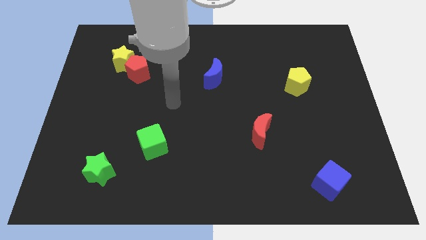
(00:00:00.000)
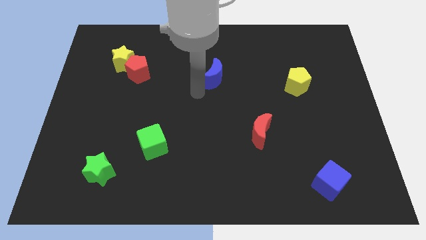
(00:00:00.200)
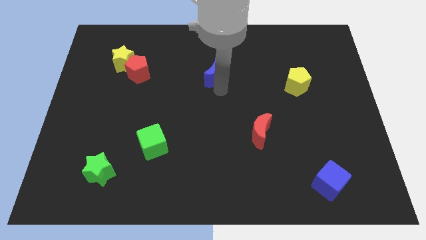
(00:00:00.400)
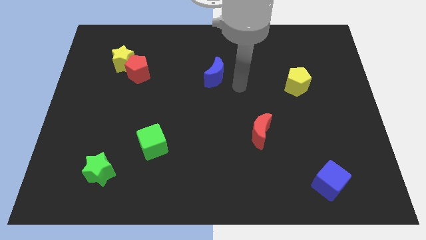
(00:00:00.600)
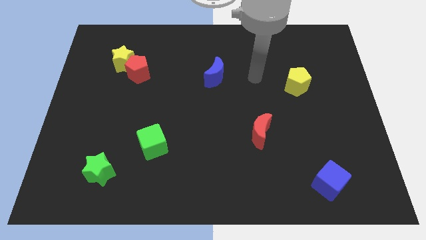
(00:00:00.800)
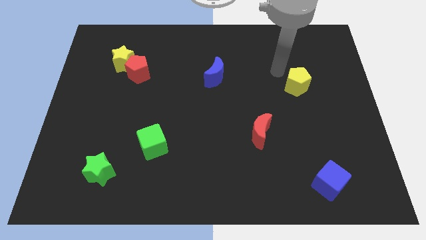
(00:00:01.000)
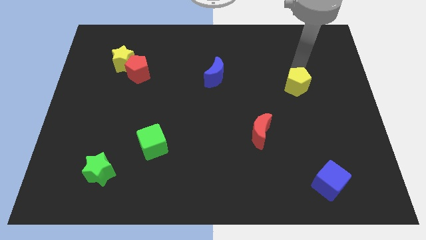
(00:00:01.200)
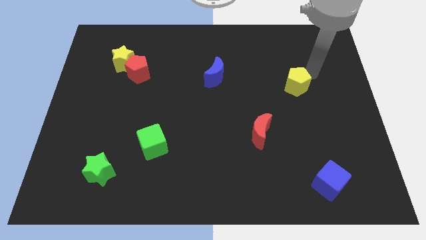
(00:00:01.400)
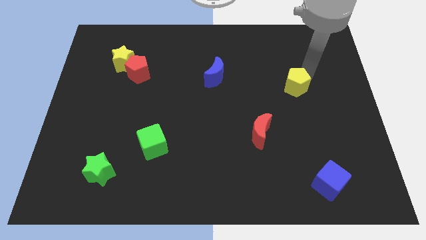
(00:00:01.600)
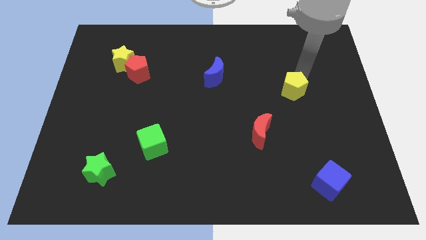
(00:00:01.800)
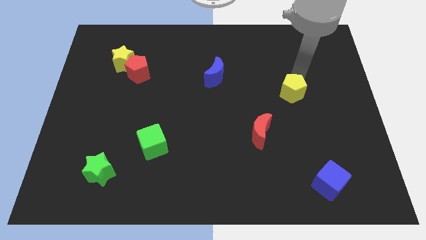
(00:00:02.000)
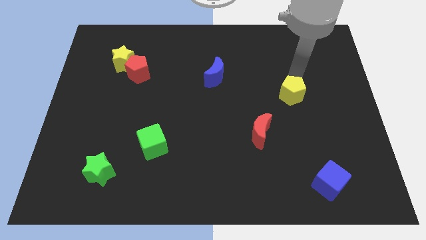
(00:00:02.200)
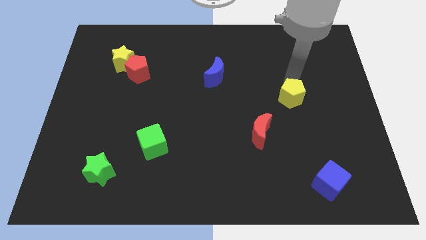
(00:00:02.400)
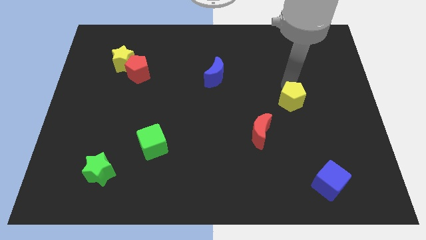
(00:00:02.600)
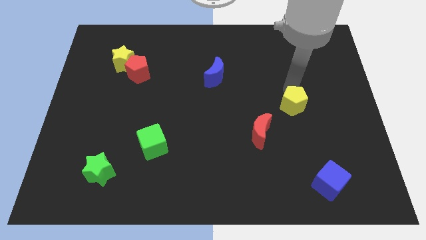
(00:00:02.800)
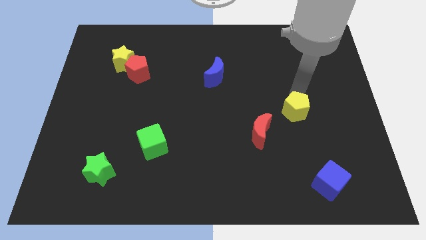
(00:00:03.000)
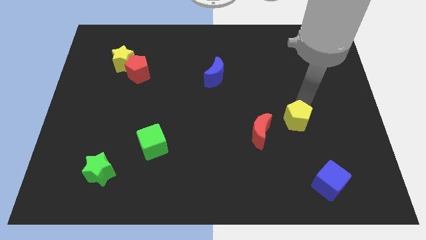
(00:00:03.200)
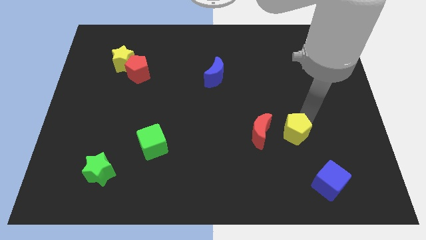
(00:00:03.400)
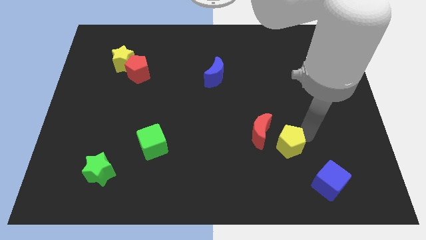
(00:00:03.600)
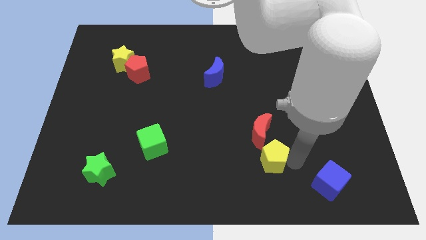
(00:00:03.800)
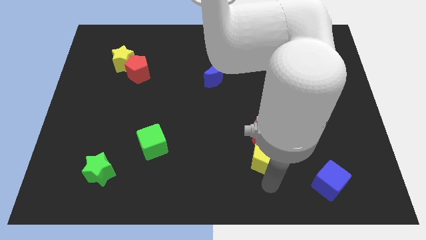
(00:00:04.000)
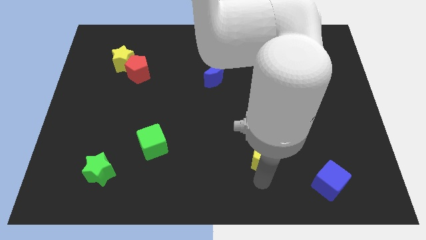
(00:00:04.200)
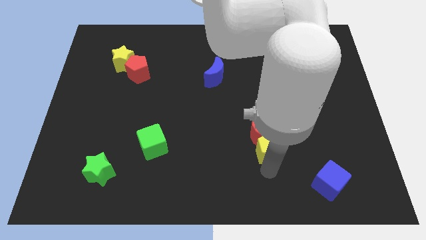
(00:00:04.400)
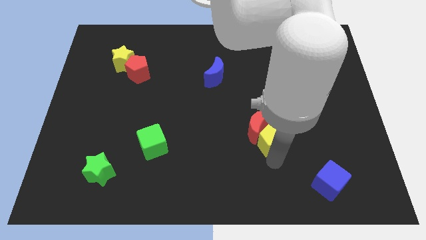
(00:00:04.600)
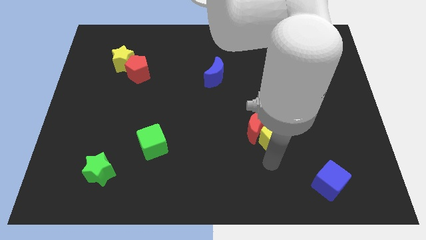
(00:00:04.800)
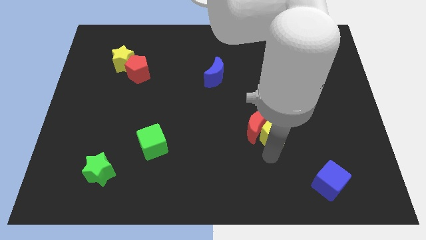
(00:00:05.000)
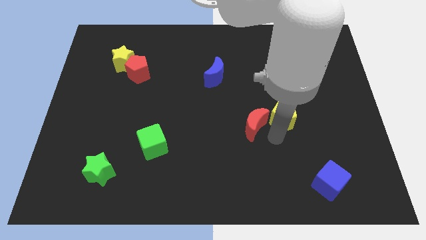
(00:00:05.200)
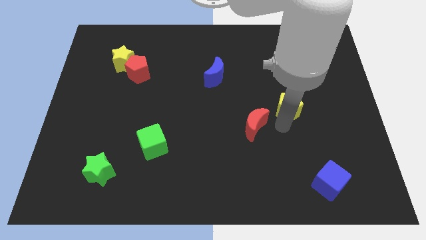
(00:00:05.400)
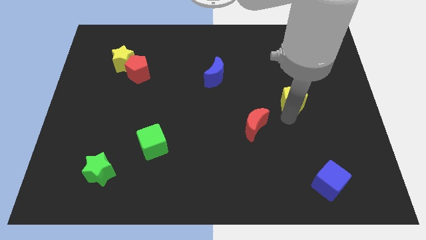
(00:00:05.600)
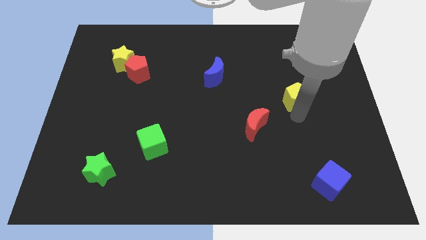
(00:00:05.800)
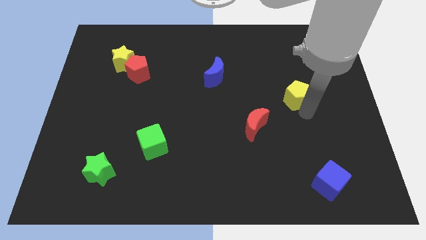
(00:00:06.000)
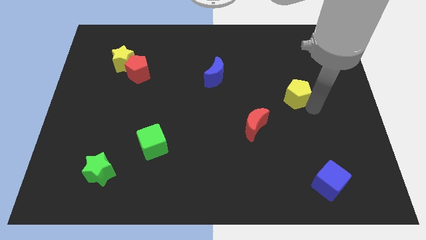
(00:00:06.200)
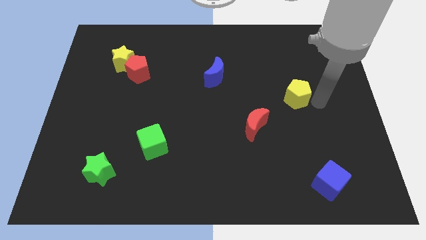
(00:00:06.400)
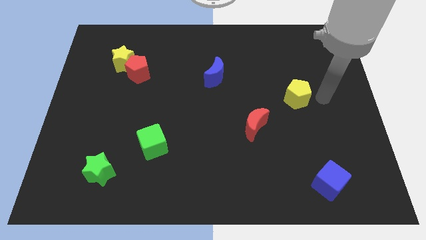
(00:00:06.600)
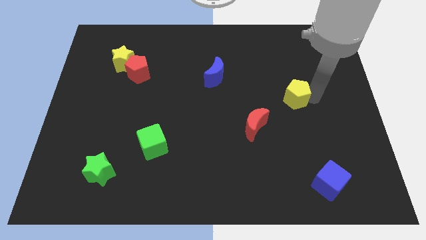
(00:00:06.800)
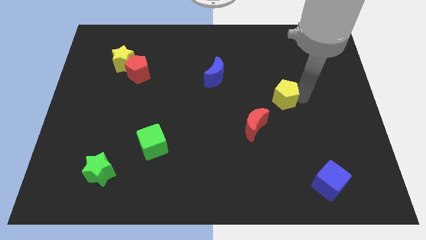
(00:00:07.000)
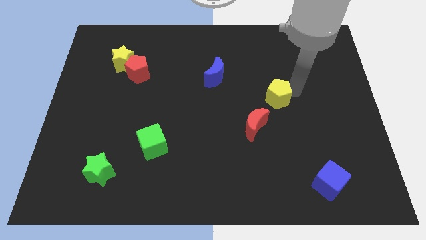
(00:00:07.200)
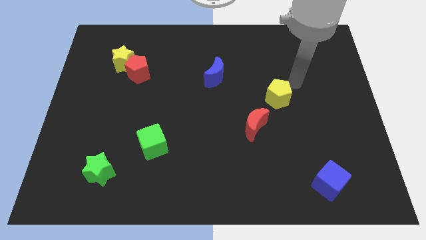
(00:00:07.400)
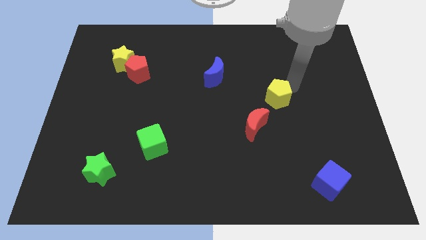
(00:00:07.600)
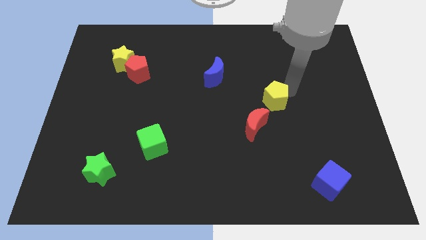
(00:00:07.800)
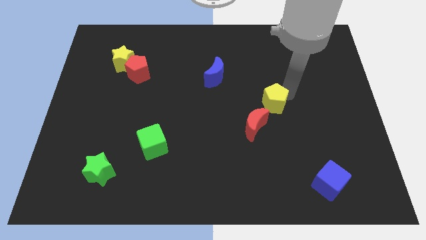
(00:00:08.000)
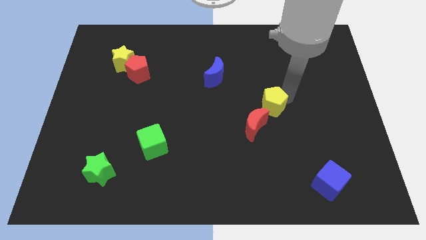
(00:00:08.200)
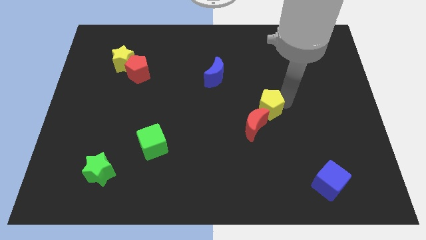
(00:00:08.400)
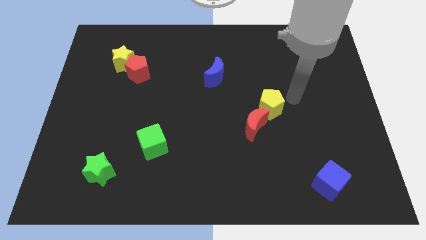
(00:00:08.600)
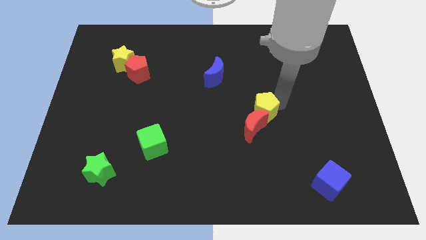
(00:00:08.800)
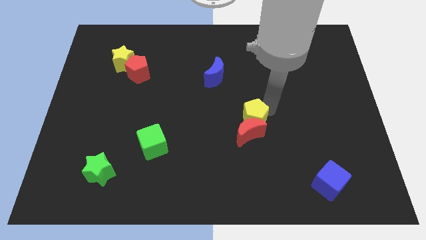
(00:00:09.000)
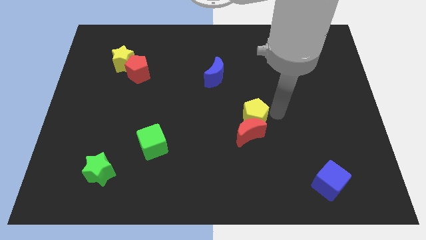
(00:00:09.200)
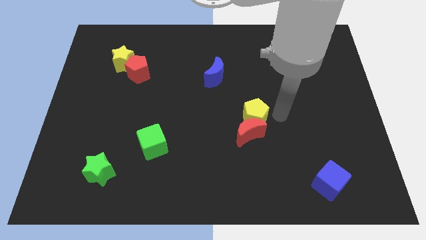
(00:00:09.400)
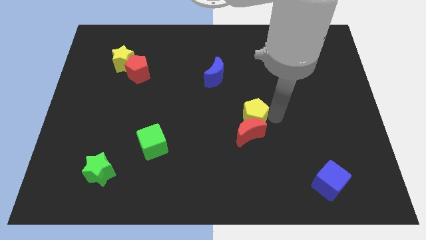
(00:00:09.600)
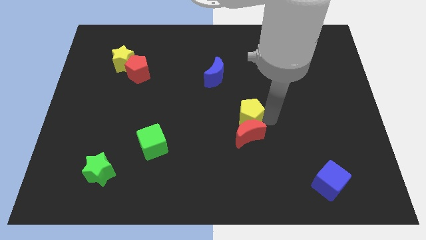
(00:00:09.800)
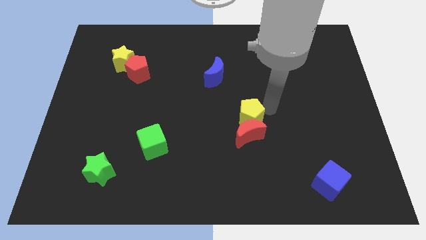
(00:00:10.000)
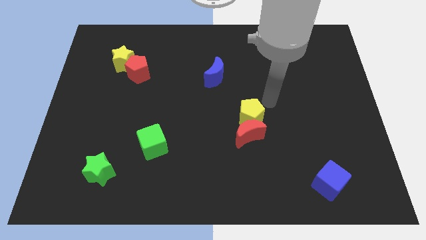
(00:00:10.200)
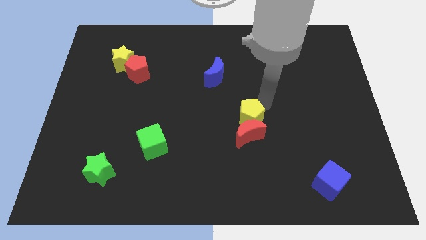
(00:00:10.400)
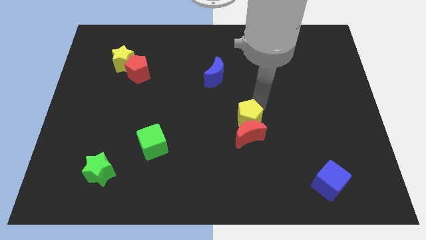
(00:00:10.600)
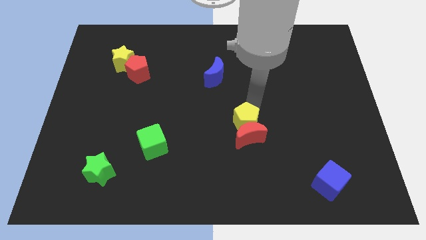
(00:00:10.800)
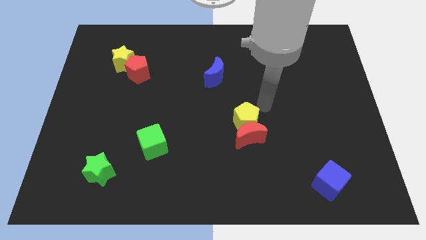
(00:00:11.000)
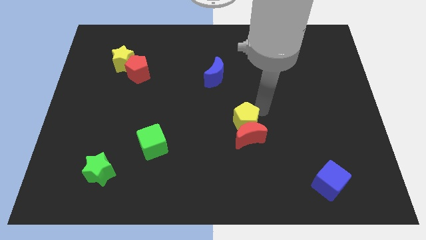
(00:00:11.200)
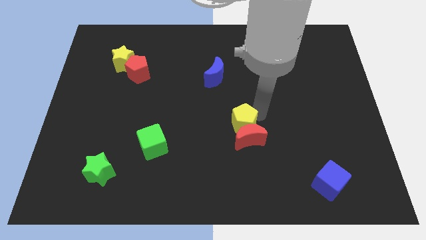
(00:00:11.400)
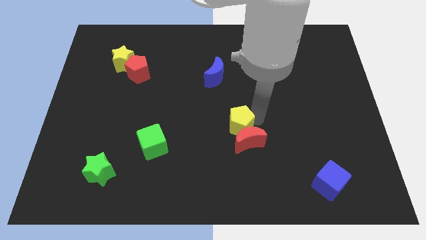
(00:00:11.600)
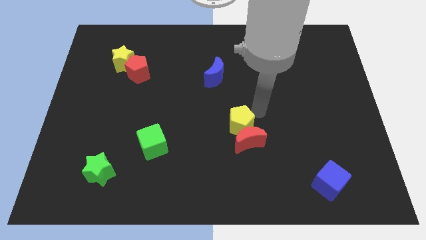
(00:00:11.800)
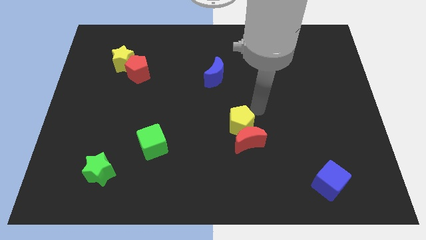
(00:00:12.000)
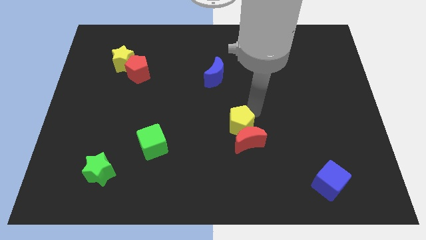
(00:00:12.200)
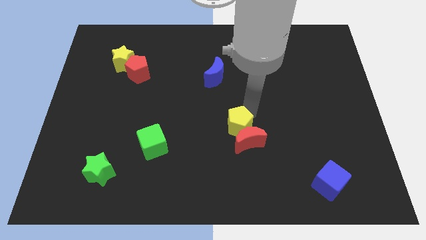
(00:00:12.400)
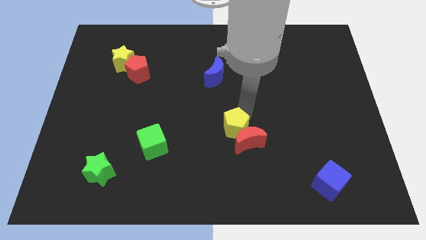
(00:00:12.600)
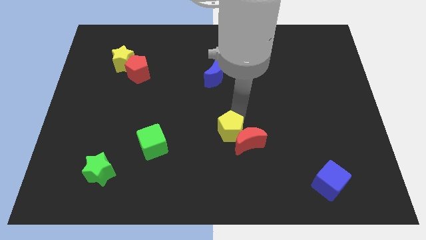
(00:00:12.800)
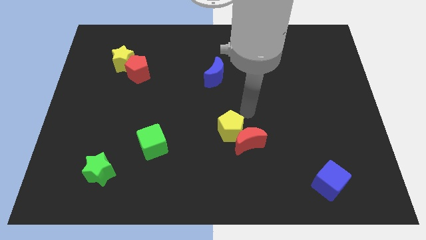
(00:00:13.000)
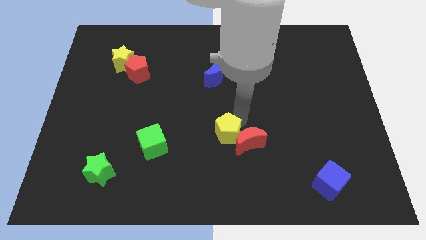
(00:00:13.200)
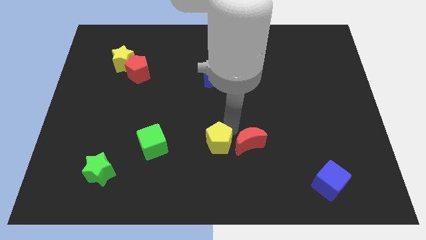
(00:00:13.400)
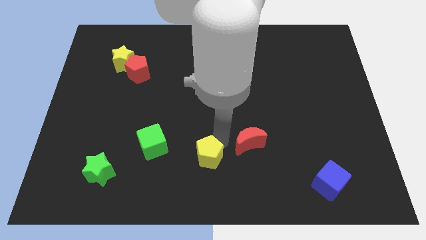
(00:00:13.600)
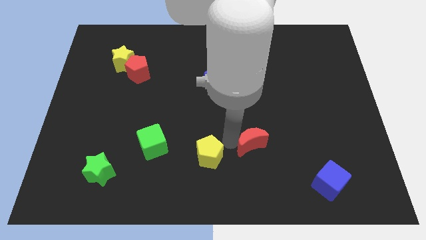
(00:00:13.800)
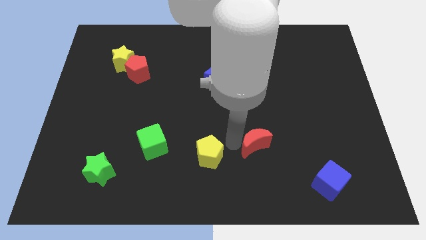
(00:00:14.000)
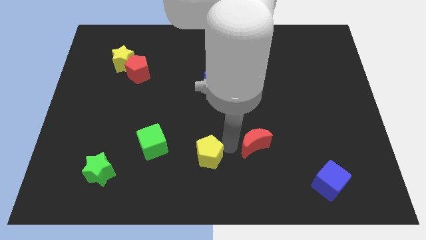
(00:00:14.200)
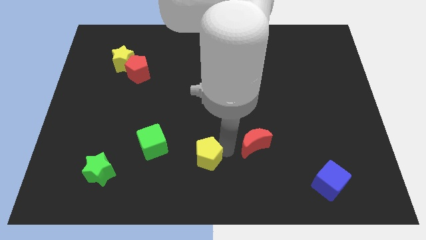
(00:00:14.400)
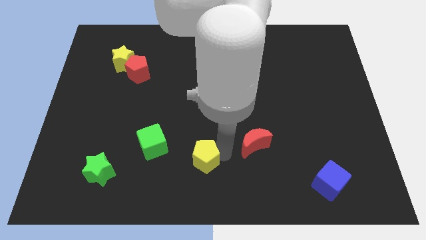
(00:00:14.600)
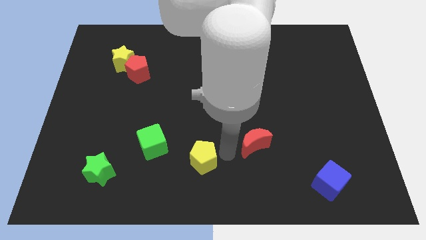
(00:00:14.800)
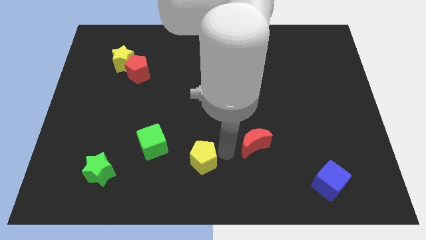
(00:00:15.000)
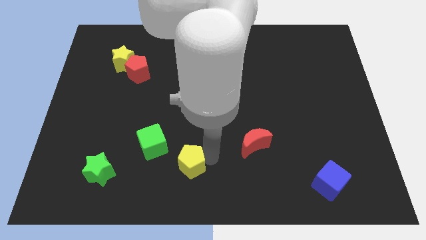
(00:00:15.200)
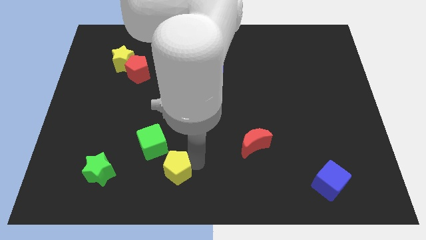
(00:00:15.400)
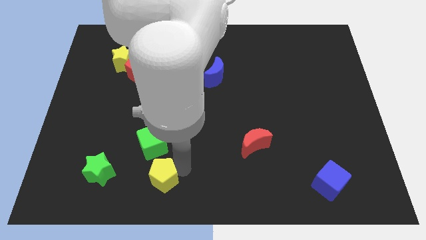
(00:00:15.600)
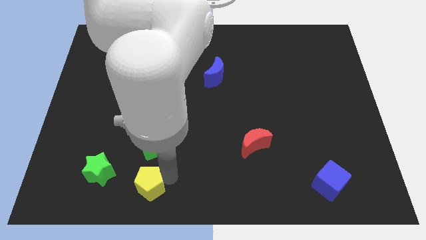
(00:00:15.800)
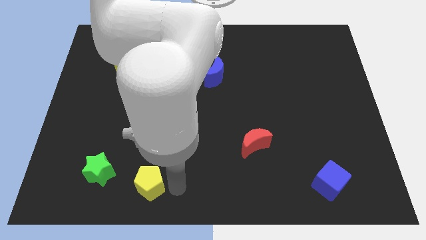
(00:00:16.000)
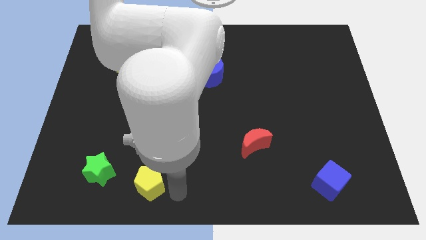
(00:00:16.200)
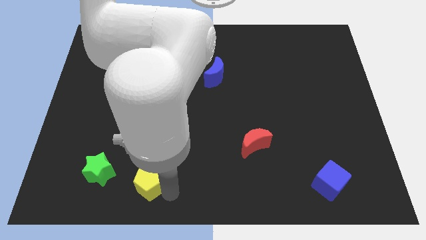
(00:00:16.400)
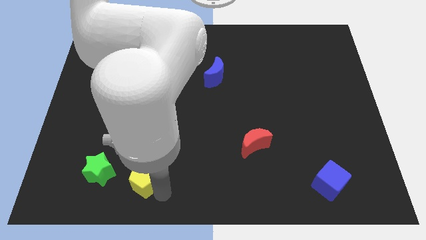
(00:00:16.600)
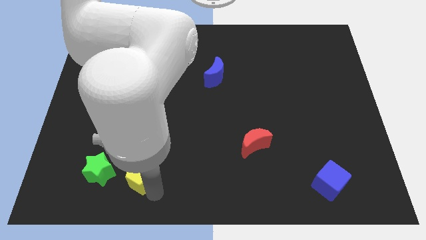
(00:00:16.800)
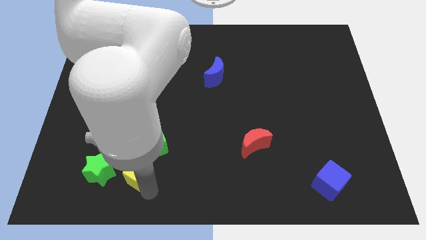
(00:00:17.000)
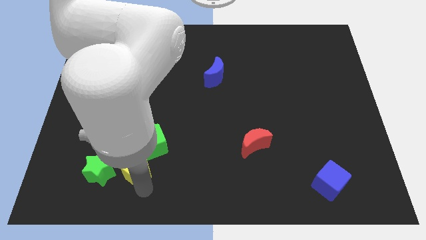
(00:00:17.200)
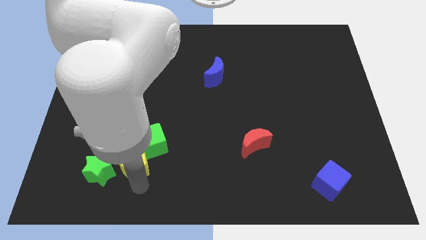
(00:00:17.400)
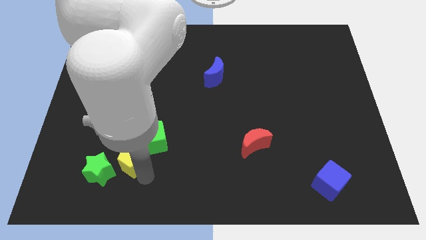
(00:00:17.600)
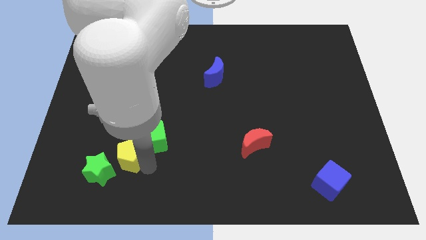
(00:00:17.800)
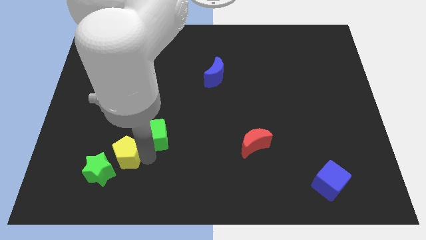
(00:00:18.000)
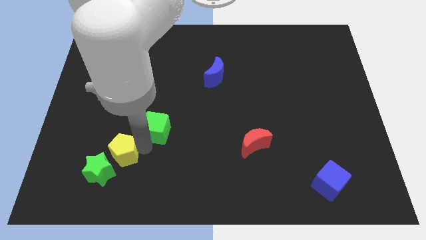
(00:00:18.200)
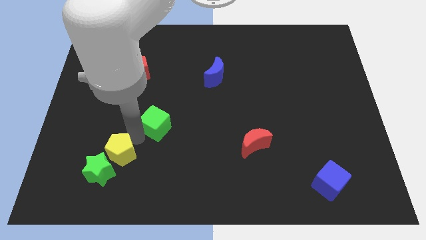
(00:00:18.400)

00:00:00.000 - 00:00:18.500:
put the yellow pentagon to the green star
